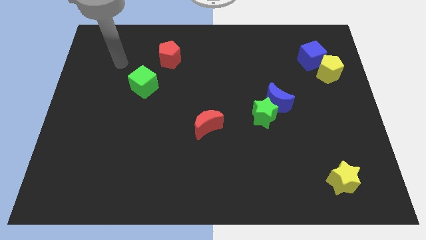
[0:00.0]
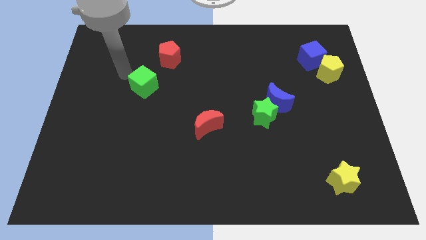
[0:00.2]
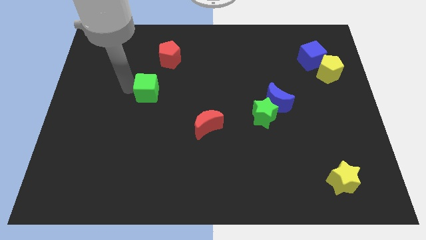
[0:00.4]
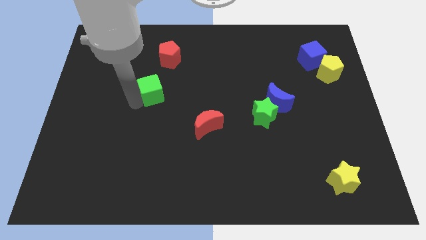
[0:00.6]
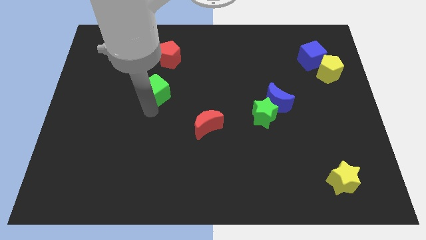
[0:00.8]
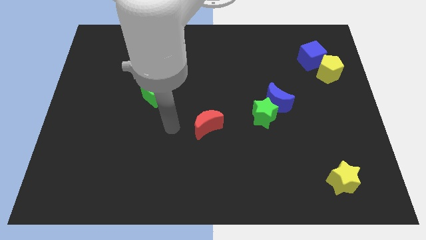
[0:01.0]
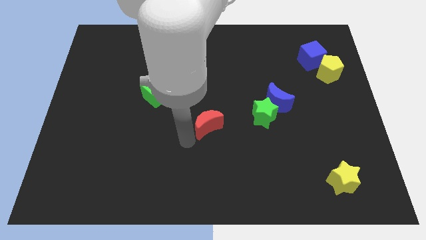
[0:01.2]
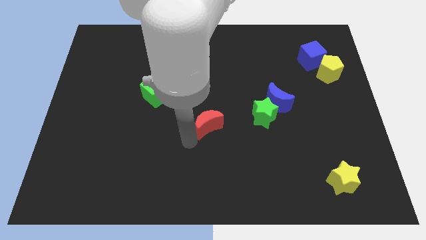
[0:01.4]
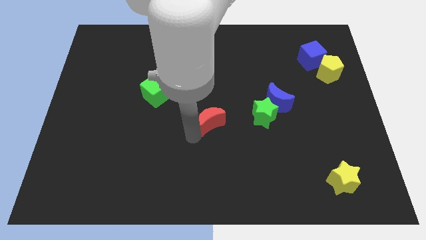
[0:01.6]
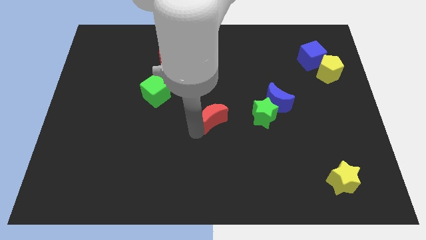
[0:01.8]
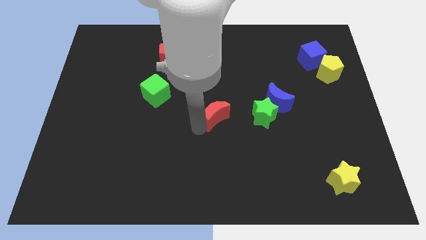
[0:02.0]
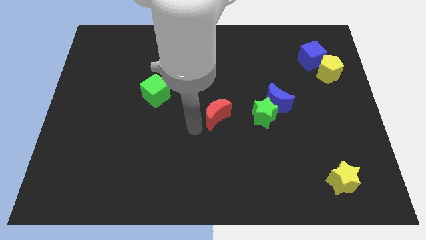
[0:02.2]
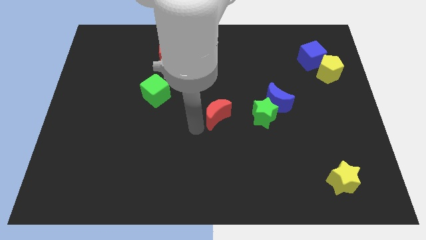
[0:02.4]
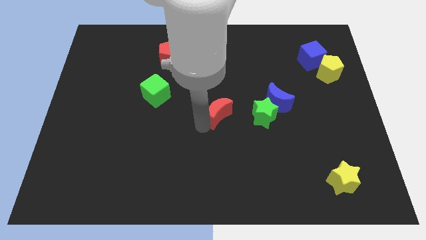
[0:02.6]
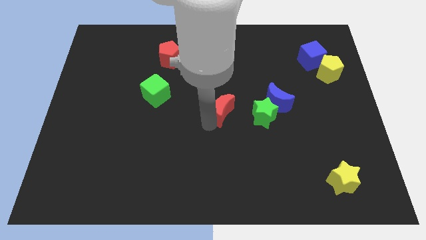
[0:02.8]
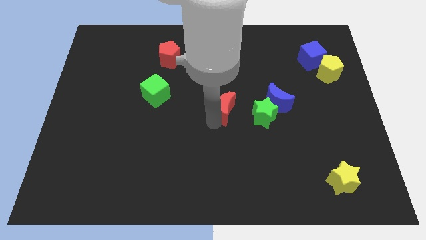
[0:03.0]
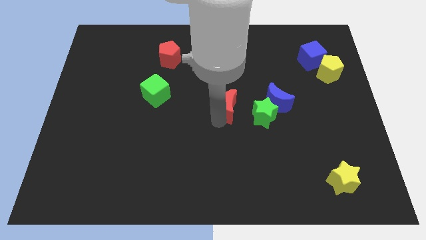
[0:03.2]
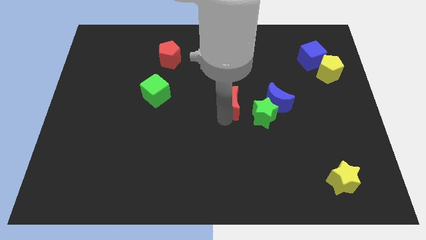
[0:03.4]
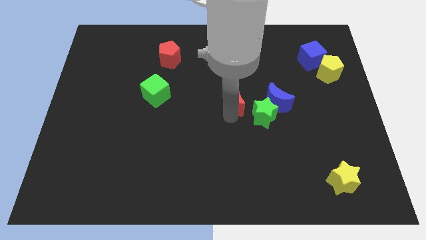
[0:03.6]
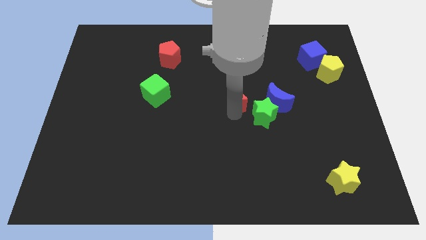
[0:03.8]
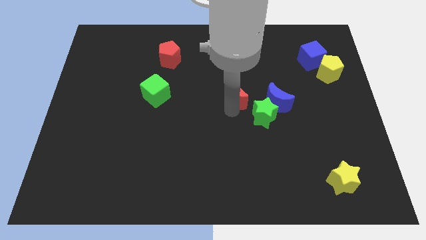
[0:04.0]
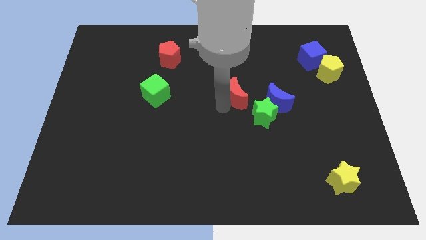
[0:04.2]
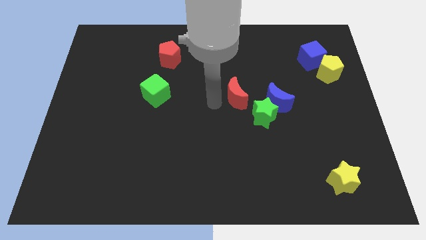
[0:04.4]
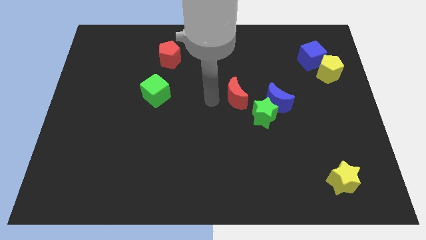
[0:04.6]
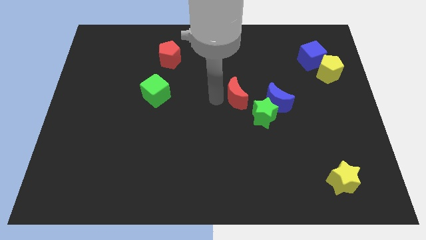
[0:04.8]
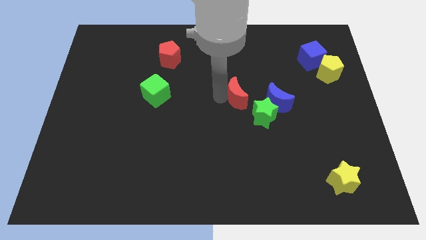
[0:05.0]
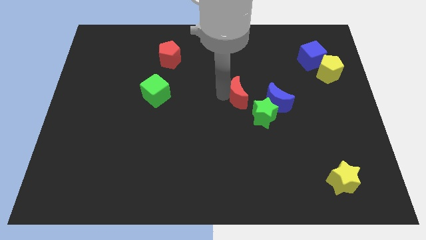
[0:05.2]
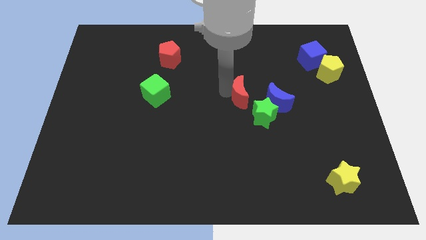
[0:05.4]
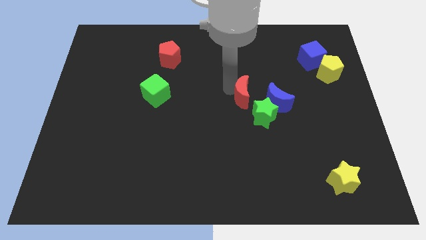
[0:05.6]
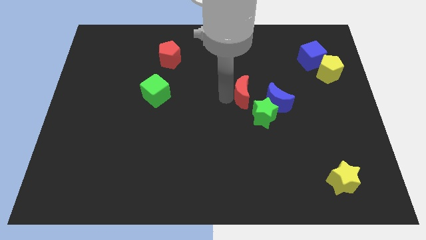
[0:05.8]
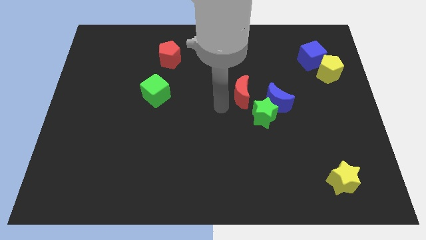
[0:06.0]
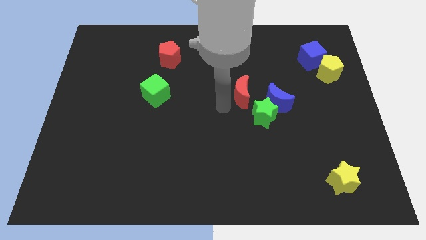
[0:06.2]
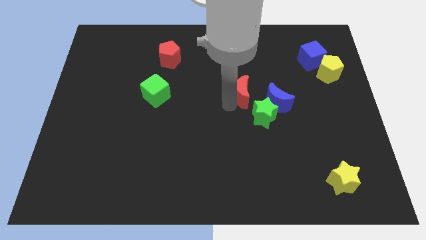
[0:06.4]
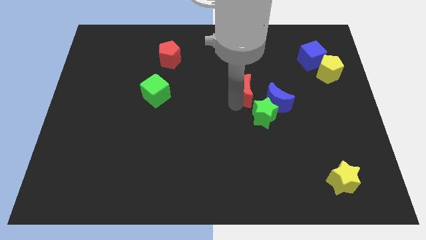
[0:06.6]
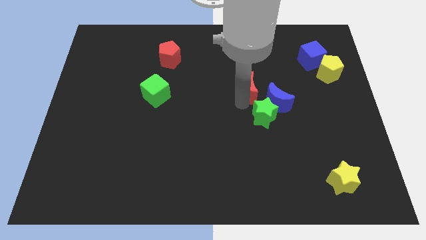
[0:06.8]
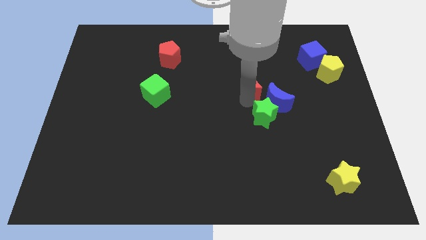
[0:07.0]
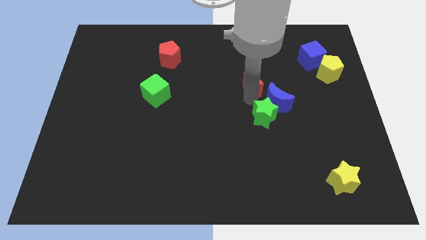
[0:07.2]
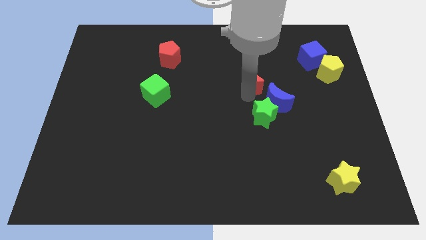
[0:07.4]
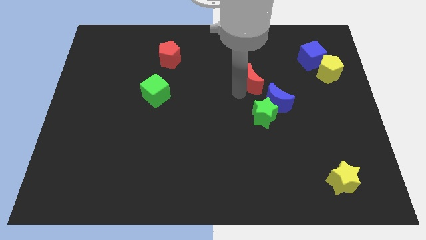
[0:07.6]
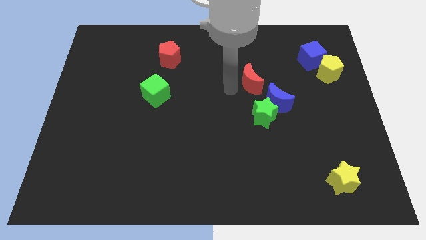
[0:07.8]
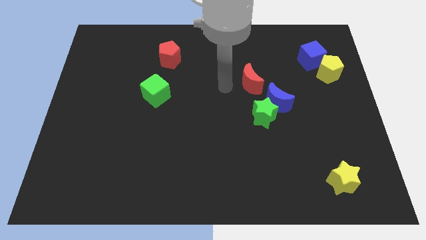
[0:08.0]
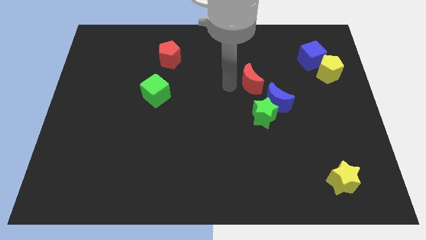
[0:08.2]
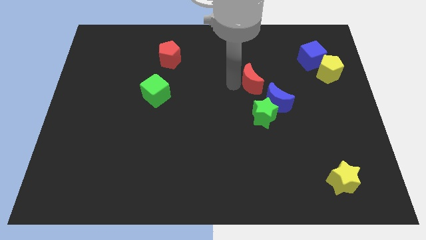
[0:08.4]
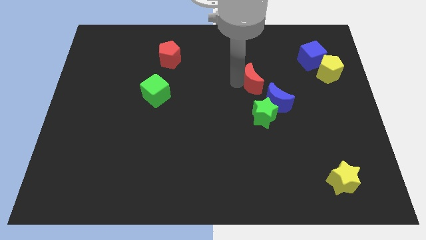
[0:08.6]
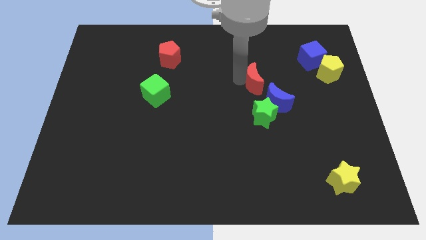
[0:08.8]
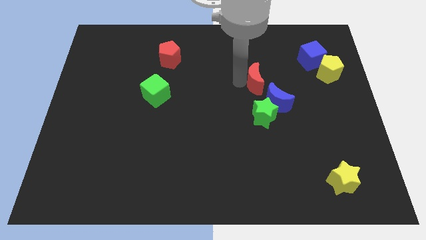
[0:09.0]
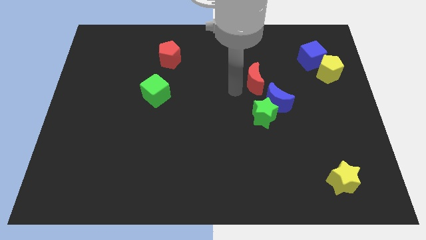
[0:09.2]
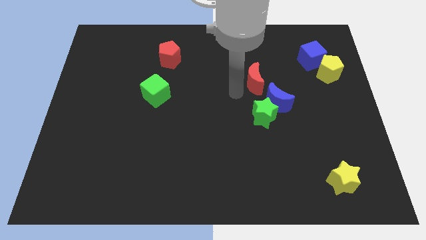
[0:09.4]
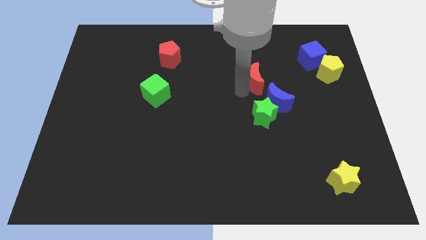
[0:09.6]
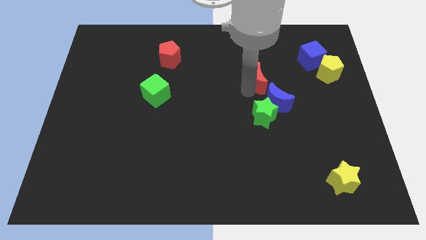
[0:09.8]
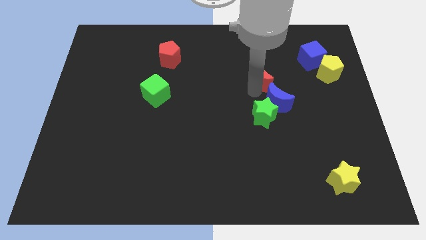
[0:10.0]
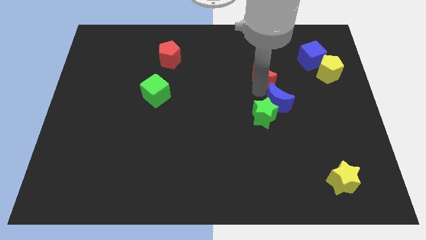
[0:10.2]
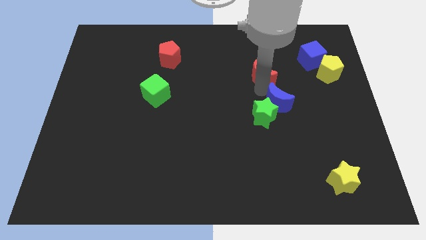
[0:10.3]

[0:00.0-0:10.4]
slide the red moon up and then to the right

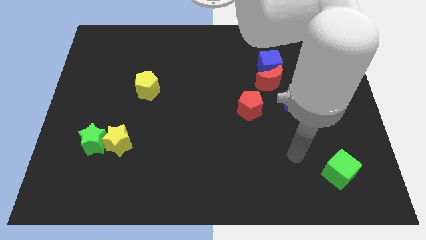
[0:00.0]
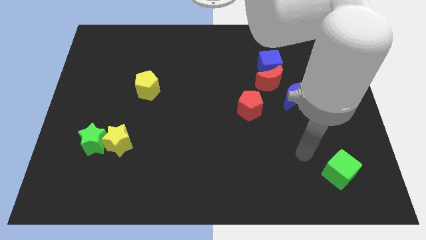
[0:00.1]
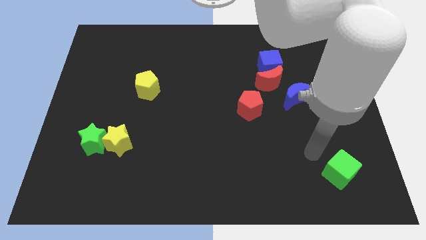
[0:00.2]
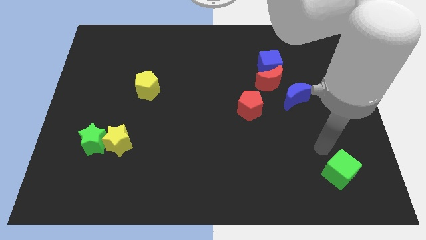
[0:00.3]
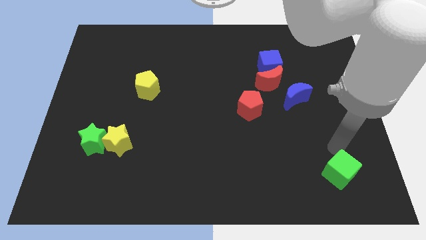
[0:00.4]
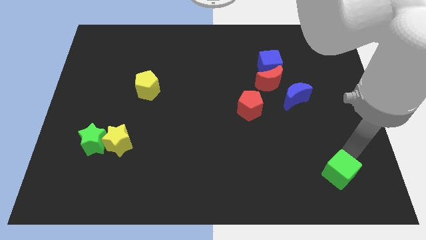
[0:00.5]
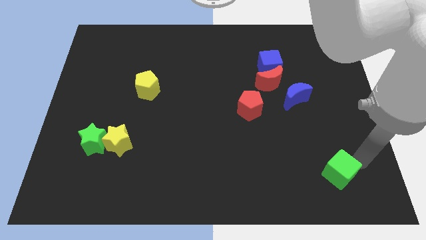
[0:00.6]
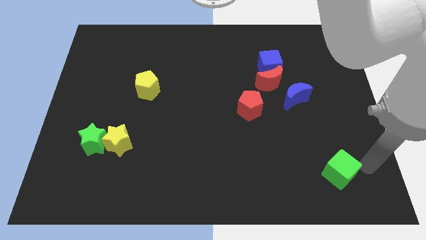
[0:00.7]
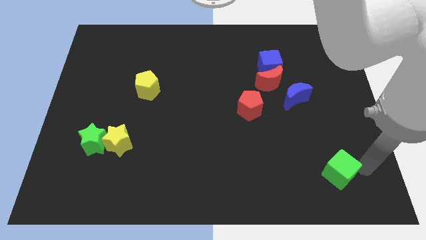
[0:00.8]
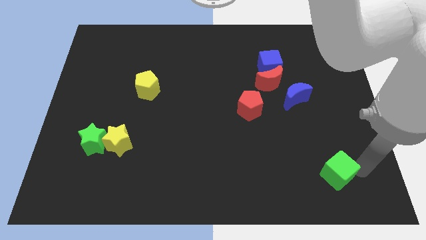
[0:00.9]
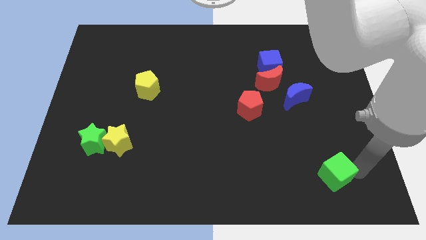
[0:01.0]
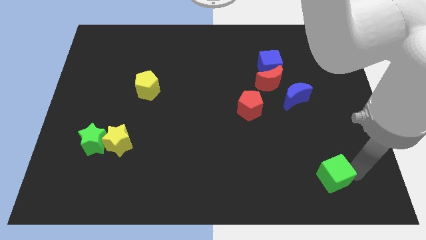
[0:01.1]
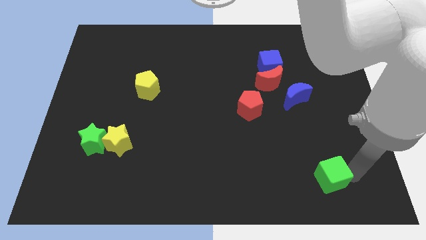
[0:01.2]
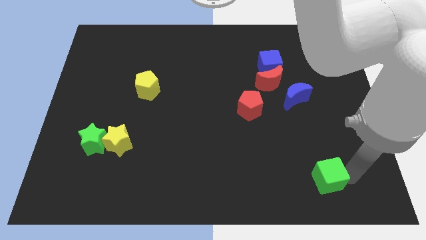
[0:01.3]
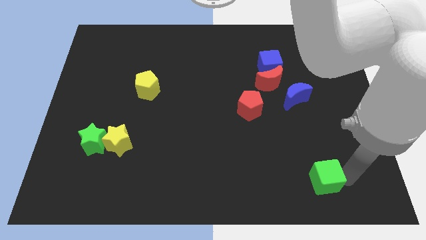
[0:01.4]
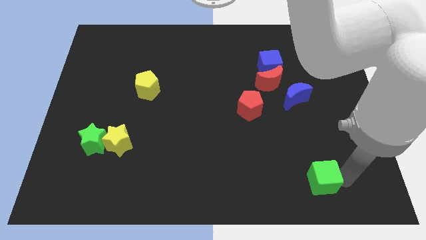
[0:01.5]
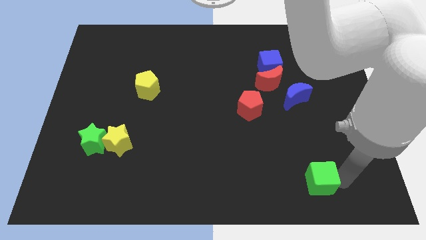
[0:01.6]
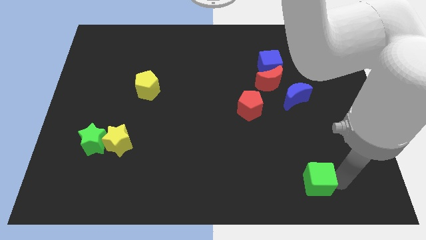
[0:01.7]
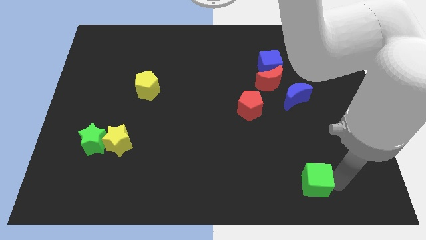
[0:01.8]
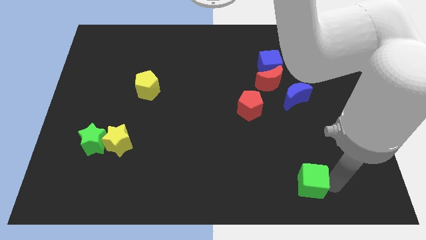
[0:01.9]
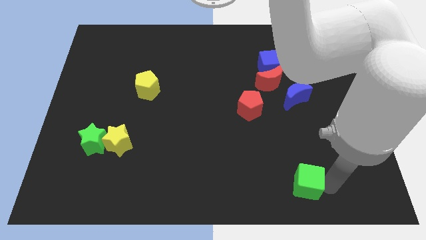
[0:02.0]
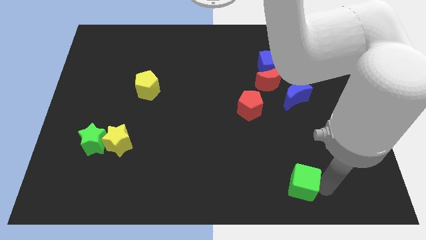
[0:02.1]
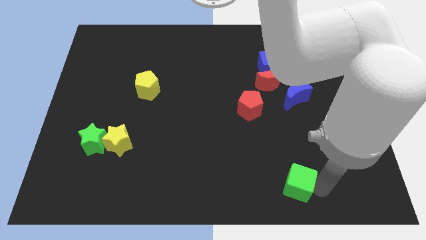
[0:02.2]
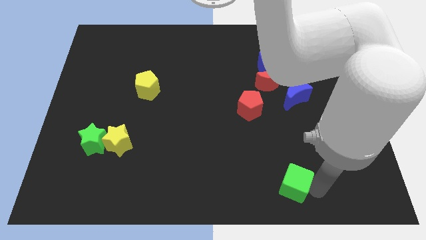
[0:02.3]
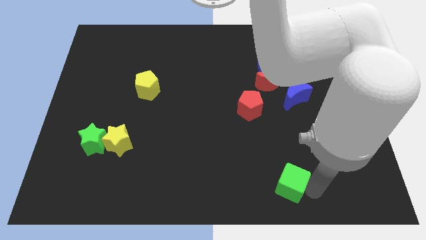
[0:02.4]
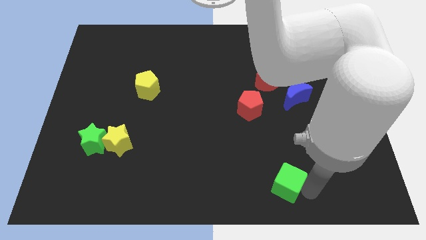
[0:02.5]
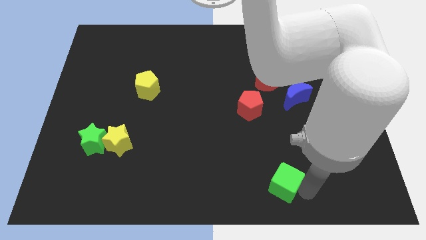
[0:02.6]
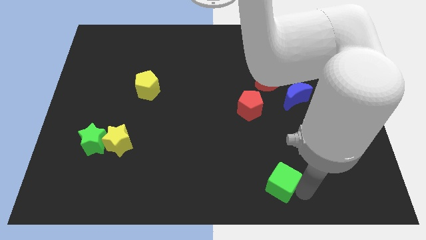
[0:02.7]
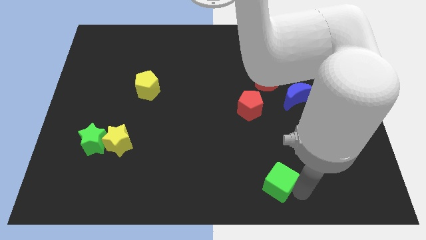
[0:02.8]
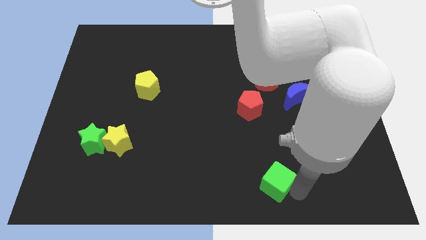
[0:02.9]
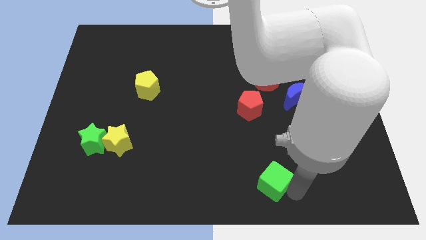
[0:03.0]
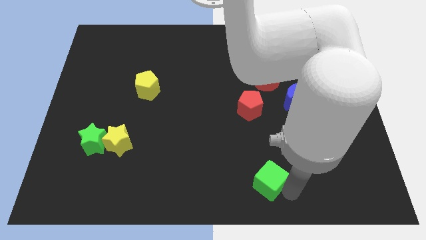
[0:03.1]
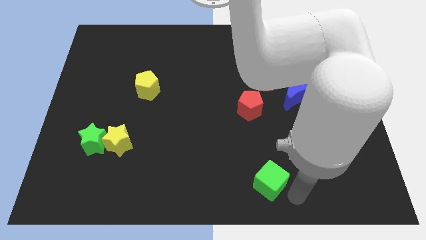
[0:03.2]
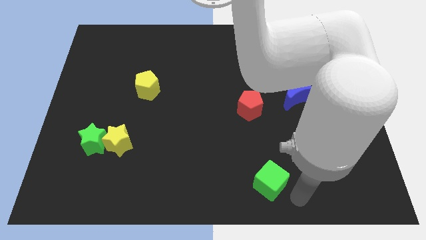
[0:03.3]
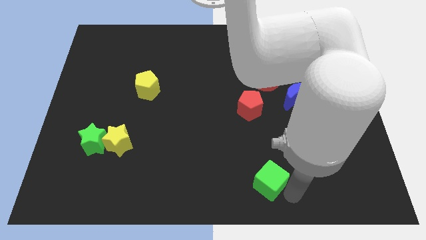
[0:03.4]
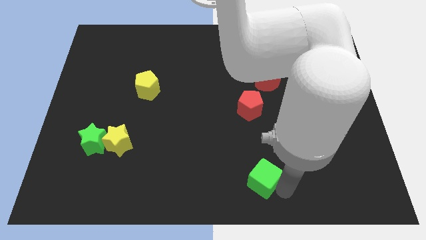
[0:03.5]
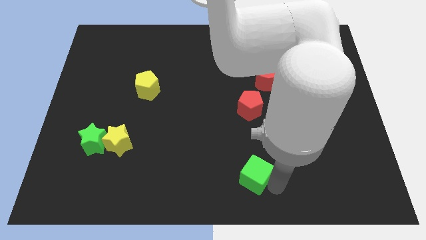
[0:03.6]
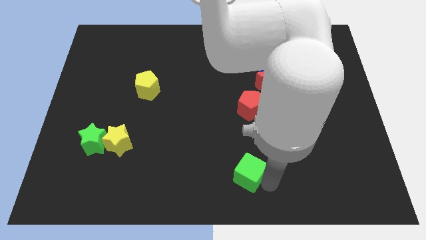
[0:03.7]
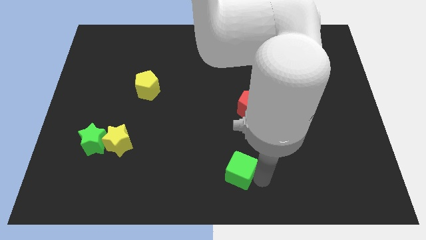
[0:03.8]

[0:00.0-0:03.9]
slide the green cube left
